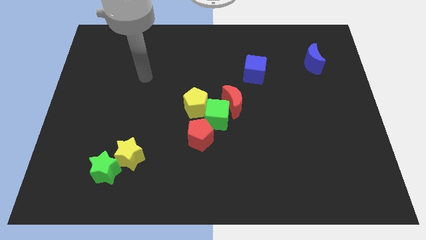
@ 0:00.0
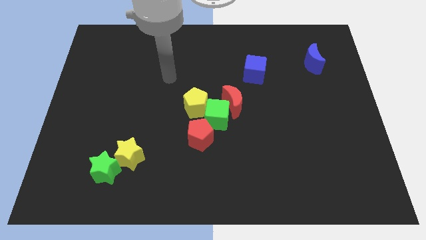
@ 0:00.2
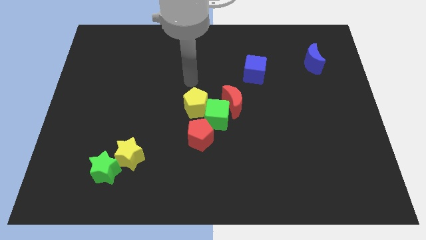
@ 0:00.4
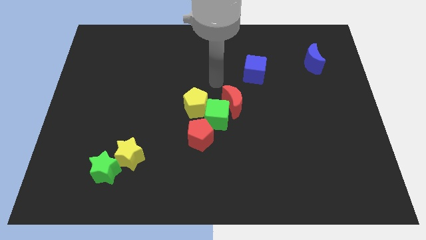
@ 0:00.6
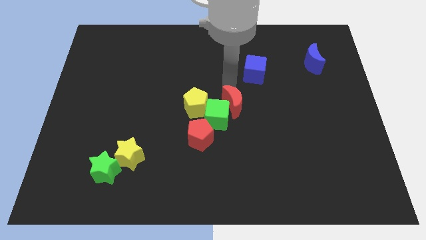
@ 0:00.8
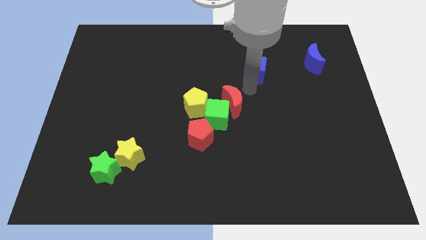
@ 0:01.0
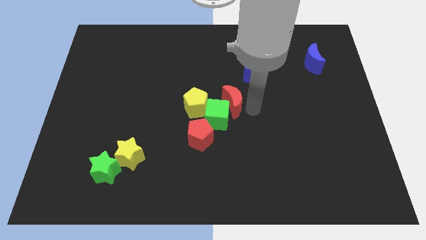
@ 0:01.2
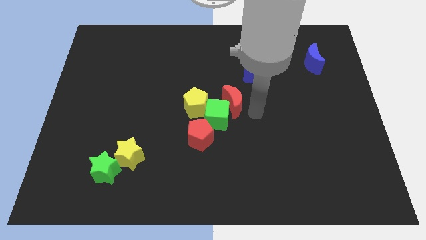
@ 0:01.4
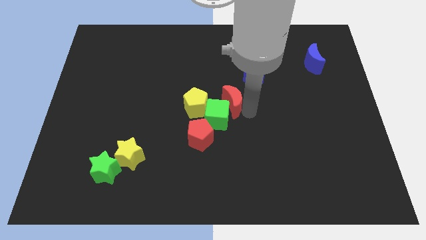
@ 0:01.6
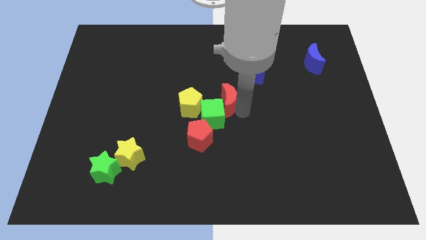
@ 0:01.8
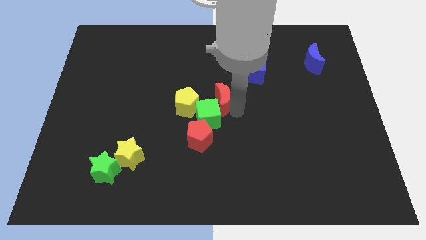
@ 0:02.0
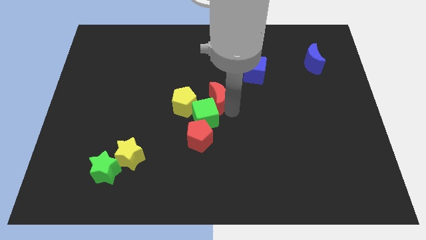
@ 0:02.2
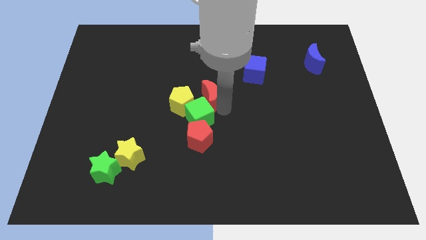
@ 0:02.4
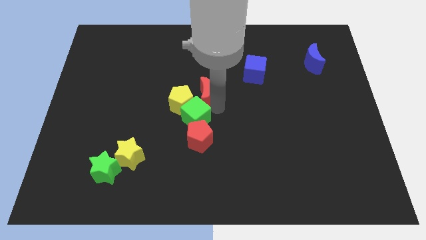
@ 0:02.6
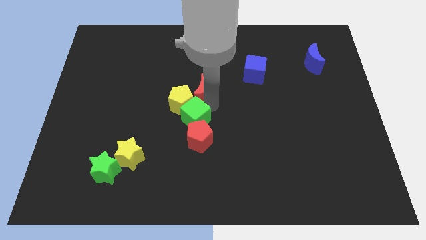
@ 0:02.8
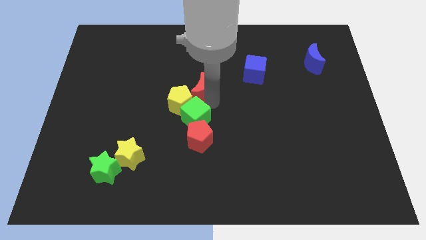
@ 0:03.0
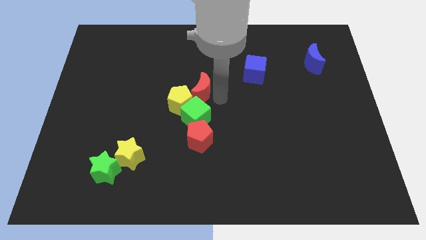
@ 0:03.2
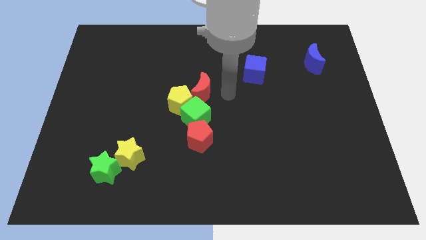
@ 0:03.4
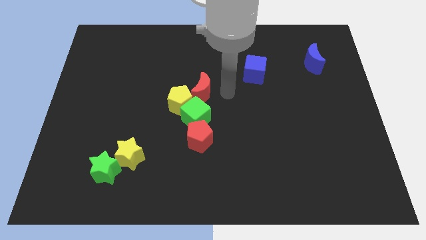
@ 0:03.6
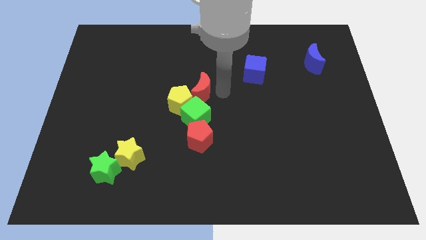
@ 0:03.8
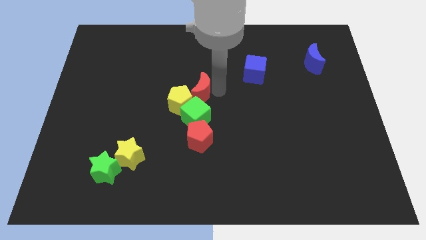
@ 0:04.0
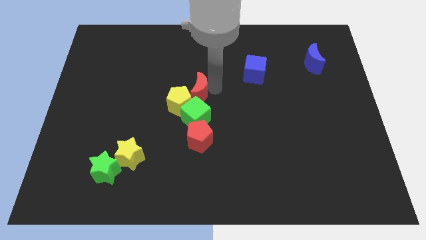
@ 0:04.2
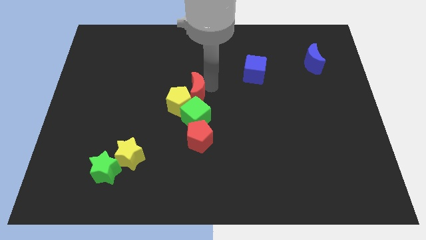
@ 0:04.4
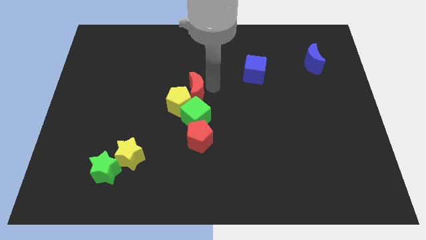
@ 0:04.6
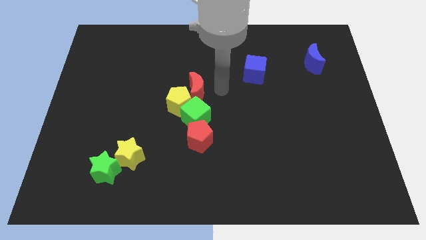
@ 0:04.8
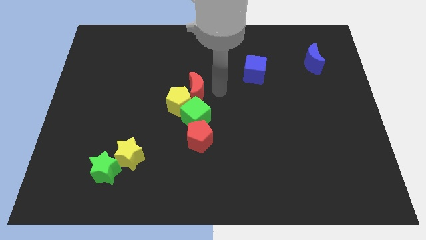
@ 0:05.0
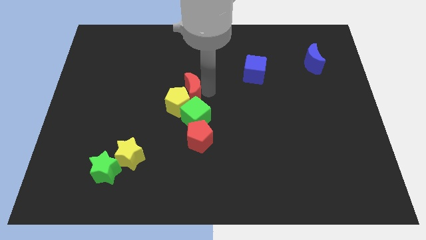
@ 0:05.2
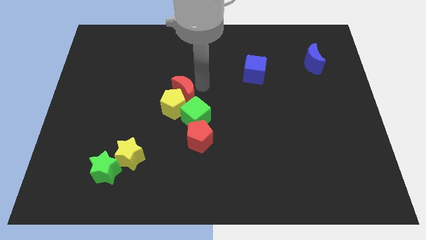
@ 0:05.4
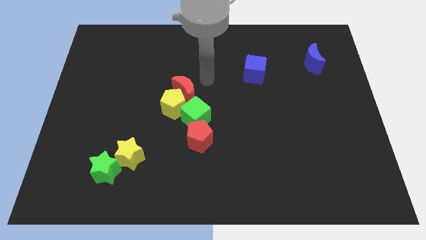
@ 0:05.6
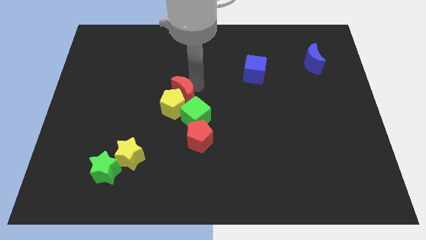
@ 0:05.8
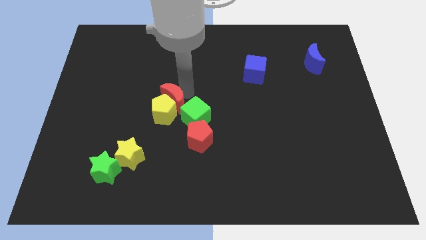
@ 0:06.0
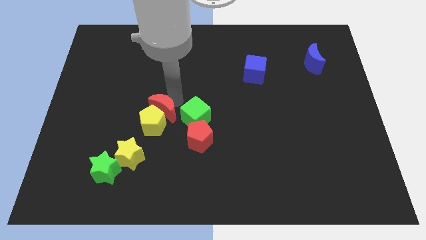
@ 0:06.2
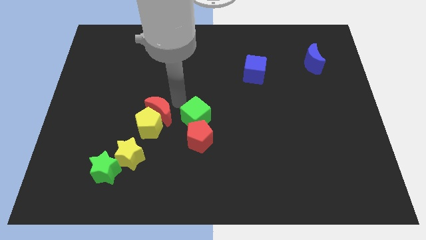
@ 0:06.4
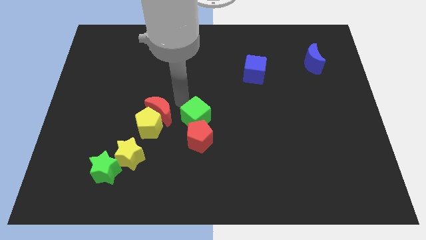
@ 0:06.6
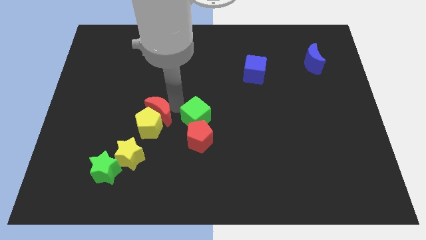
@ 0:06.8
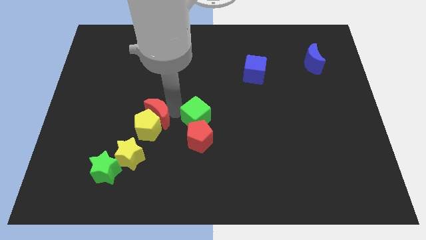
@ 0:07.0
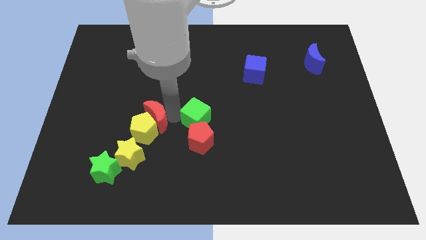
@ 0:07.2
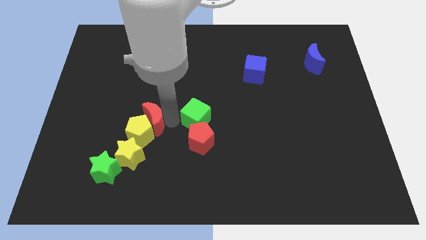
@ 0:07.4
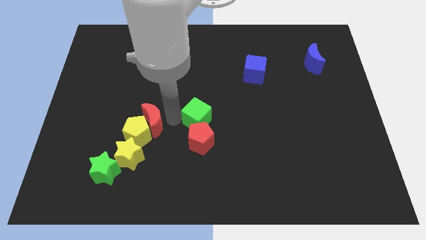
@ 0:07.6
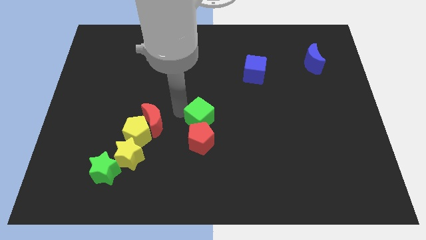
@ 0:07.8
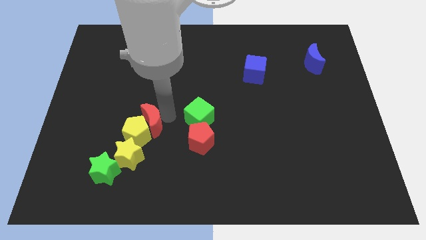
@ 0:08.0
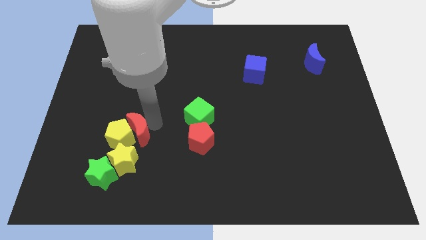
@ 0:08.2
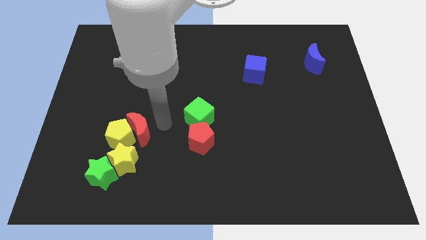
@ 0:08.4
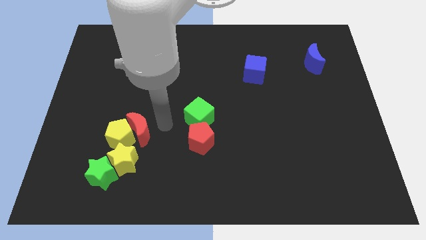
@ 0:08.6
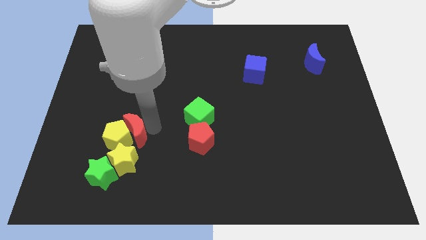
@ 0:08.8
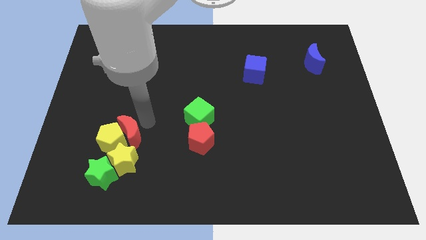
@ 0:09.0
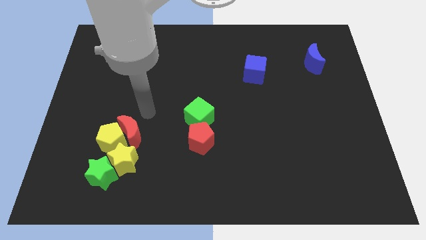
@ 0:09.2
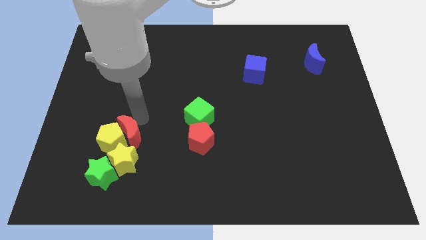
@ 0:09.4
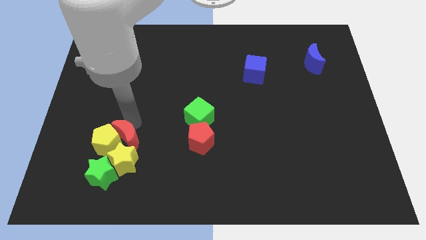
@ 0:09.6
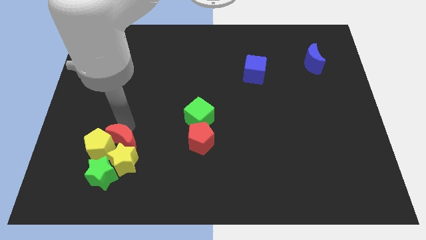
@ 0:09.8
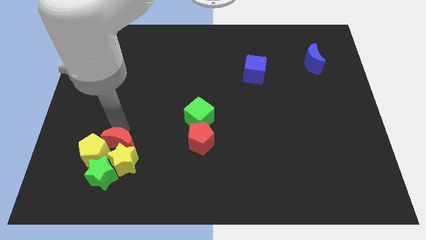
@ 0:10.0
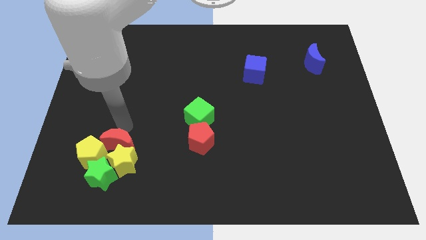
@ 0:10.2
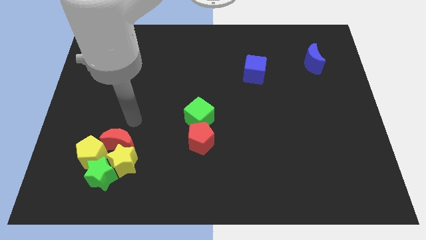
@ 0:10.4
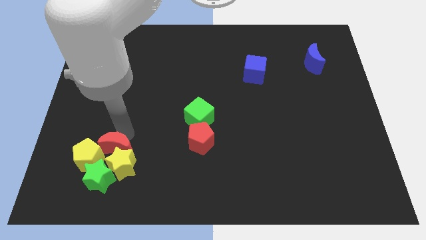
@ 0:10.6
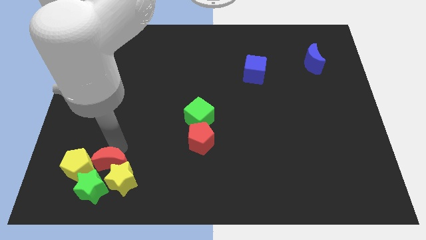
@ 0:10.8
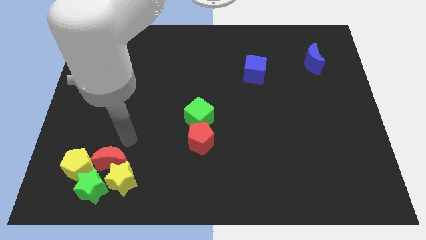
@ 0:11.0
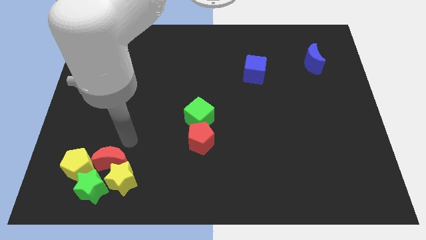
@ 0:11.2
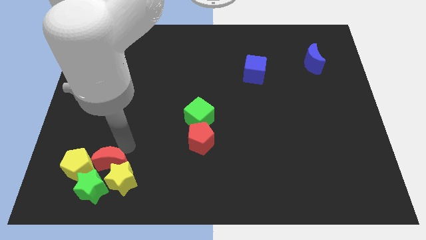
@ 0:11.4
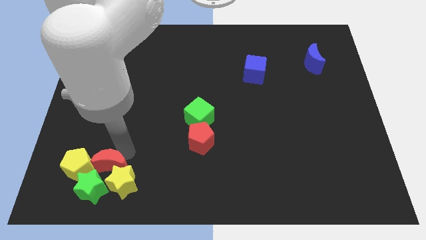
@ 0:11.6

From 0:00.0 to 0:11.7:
slide the red moon next to the green star
